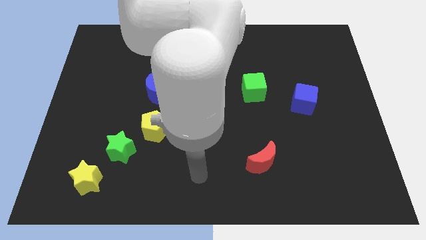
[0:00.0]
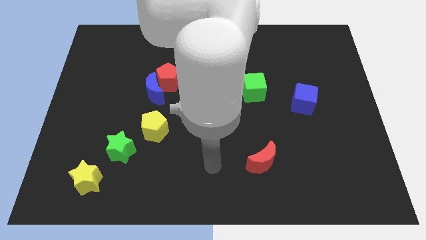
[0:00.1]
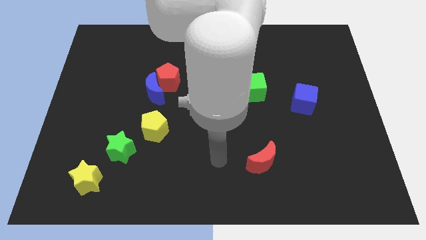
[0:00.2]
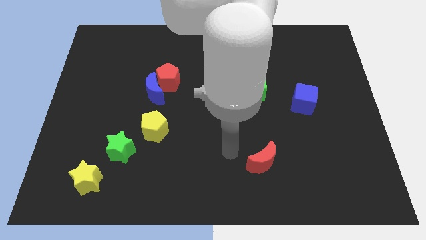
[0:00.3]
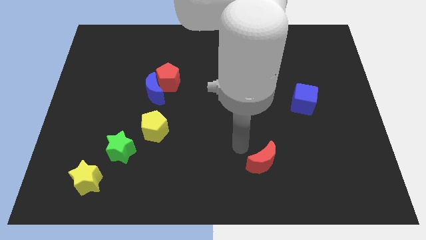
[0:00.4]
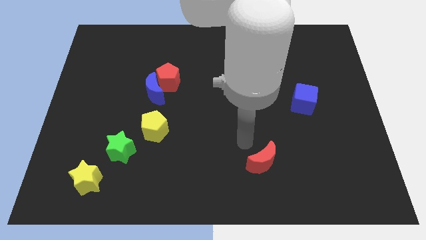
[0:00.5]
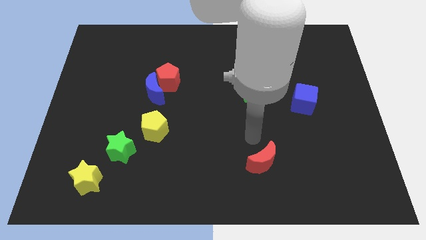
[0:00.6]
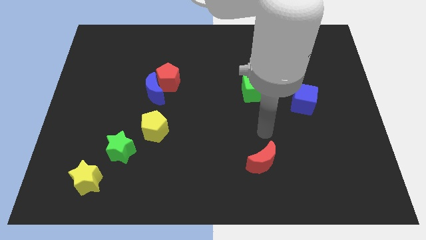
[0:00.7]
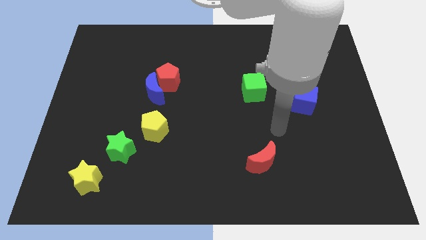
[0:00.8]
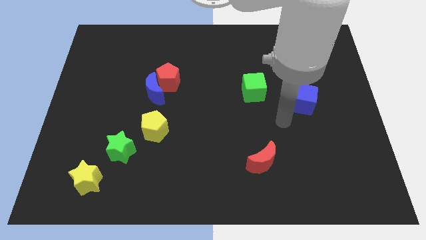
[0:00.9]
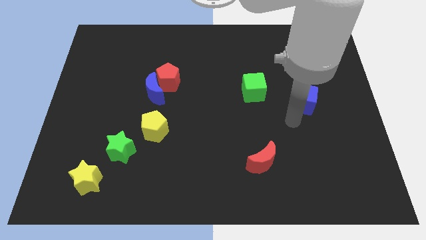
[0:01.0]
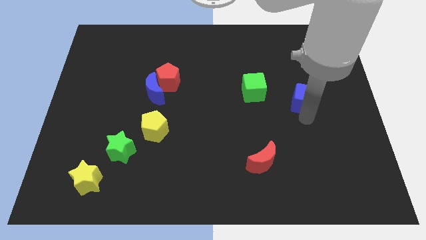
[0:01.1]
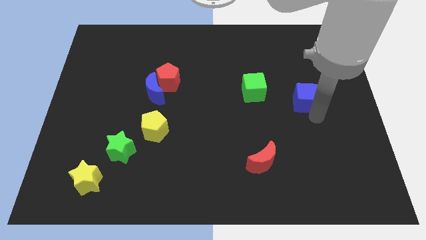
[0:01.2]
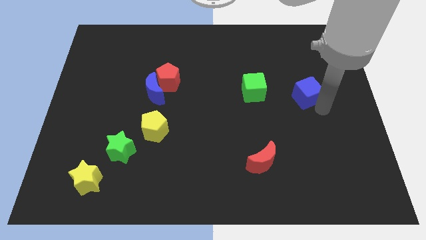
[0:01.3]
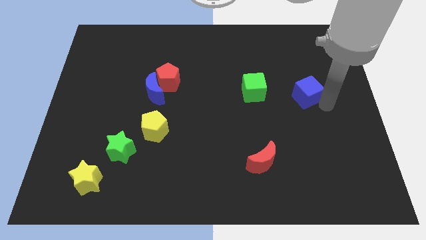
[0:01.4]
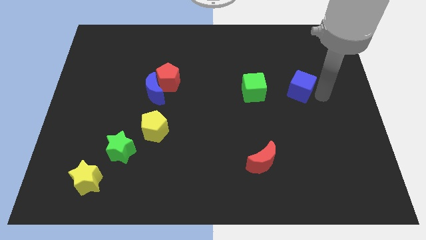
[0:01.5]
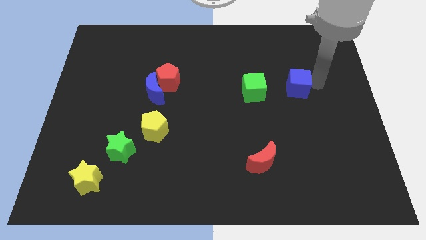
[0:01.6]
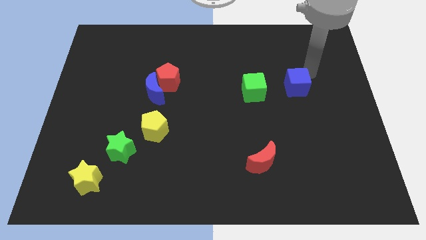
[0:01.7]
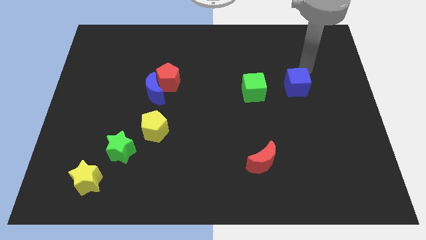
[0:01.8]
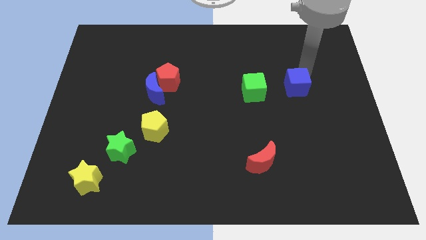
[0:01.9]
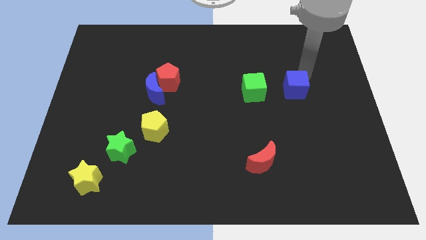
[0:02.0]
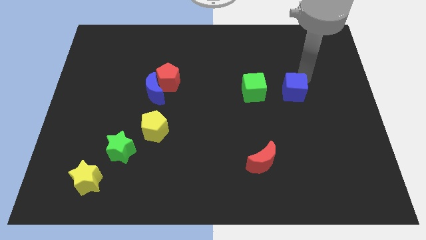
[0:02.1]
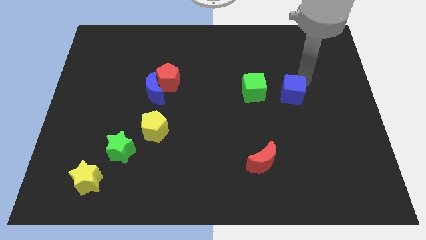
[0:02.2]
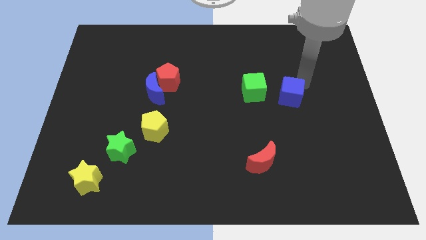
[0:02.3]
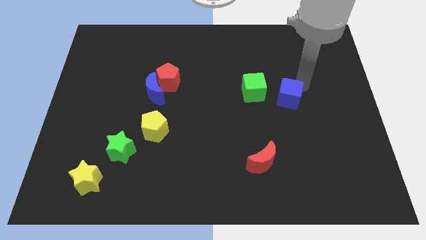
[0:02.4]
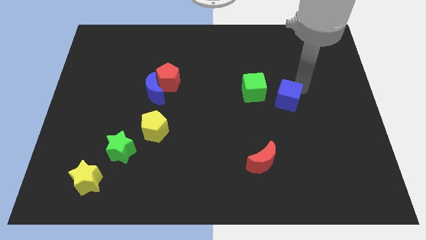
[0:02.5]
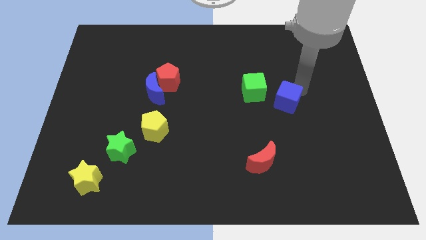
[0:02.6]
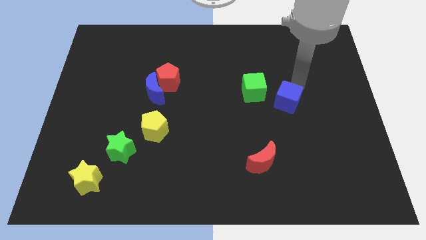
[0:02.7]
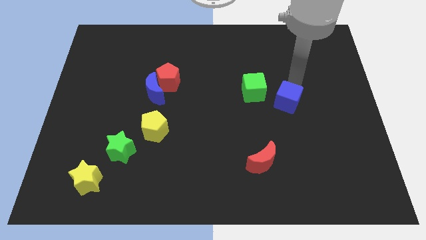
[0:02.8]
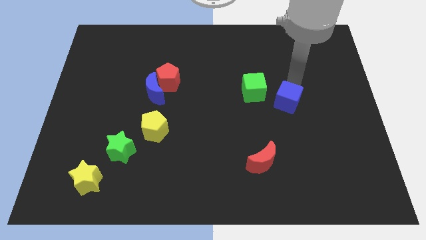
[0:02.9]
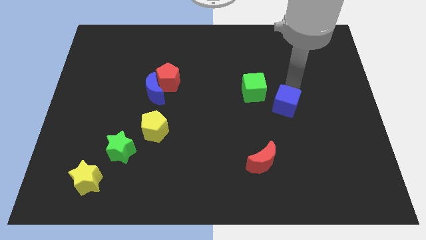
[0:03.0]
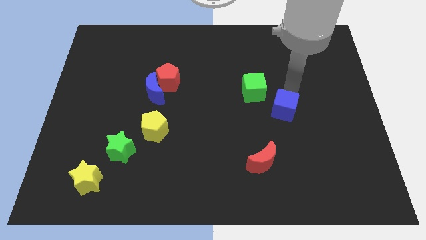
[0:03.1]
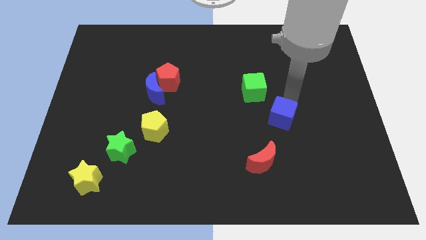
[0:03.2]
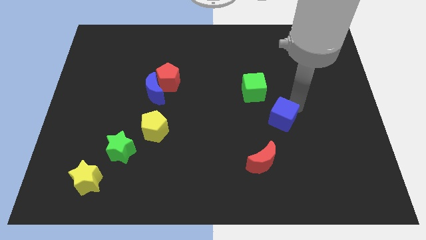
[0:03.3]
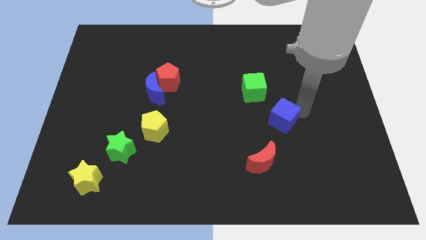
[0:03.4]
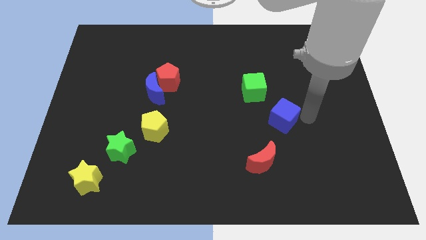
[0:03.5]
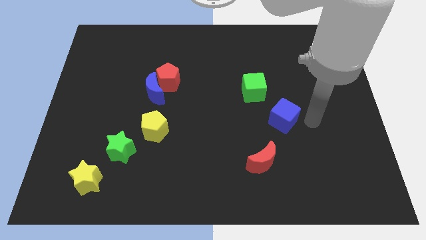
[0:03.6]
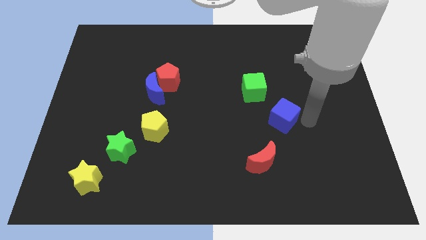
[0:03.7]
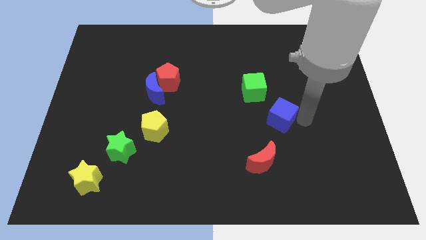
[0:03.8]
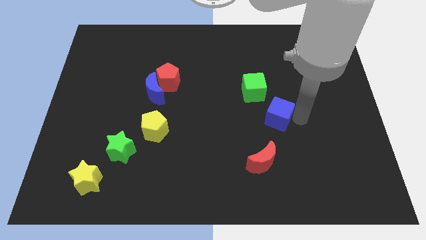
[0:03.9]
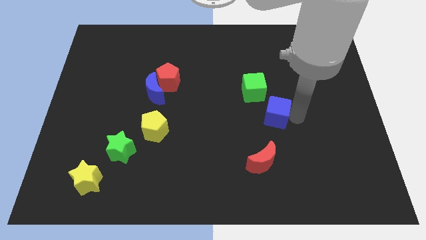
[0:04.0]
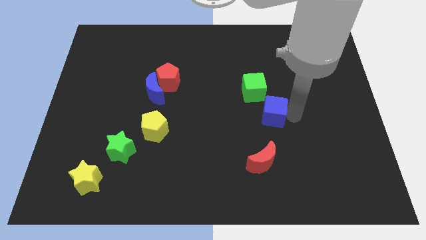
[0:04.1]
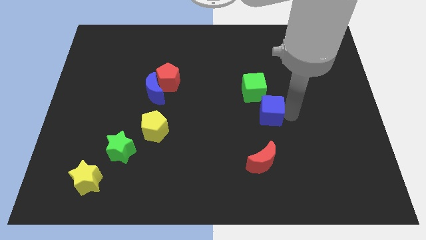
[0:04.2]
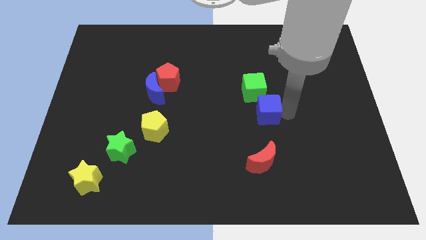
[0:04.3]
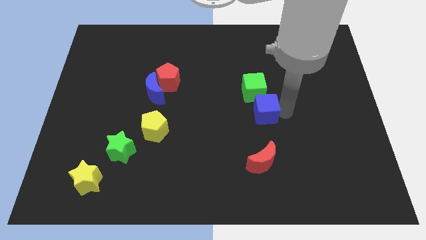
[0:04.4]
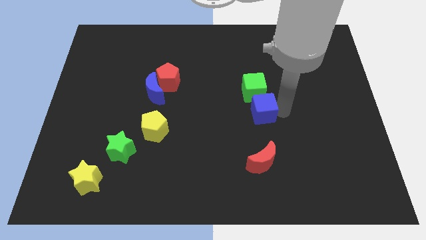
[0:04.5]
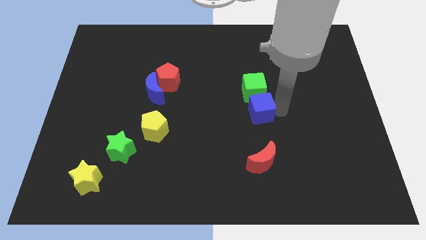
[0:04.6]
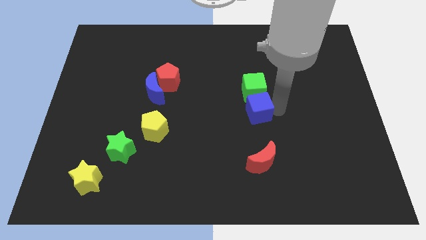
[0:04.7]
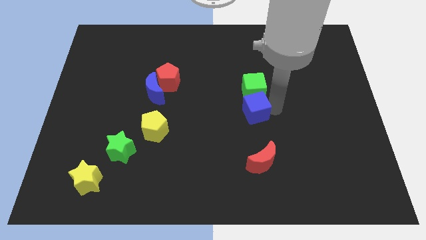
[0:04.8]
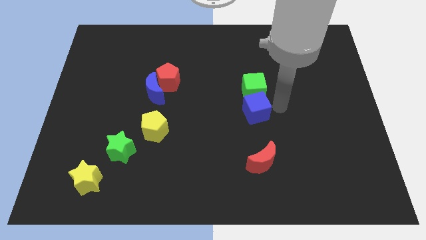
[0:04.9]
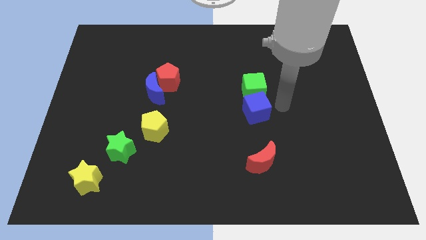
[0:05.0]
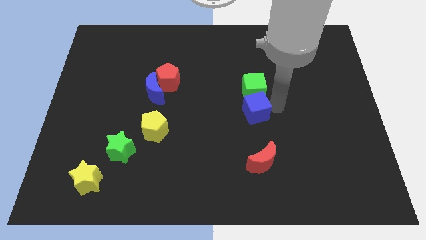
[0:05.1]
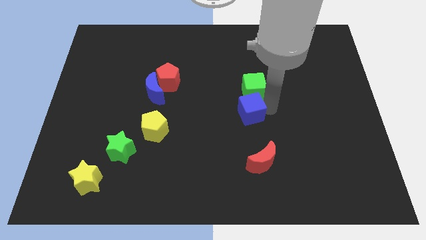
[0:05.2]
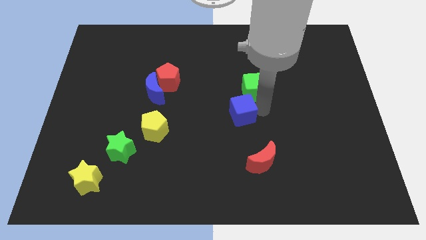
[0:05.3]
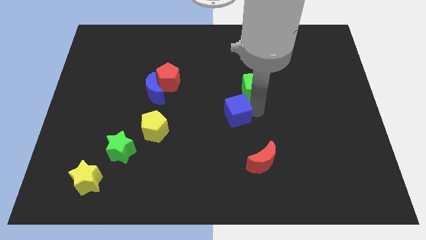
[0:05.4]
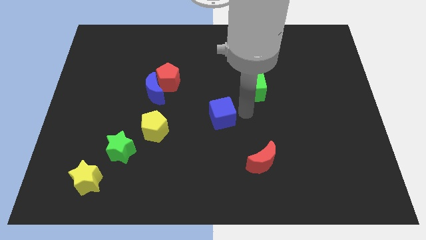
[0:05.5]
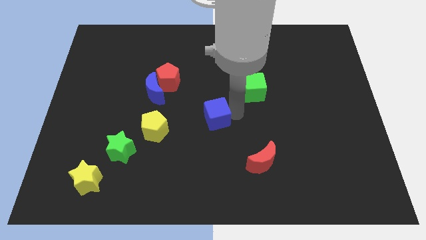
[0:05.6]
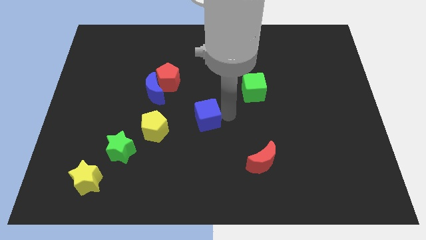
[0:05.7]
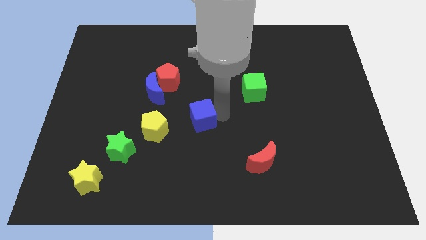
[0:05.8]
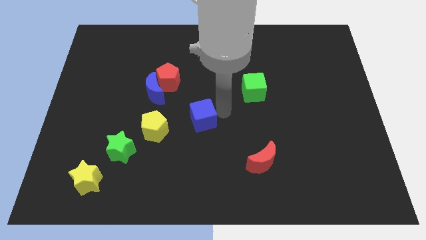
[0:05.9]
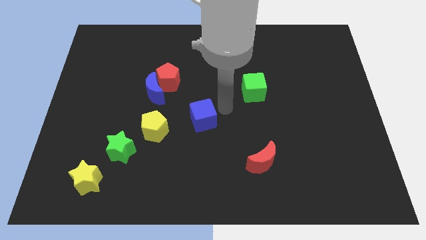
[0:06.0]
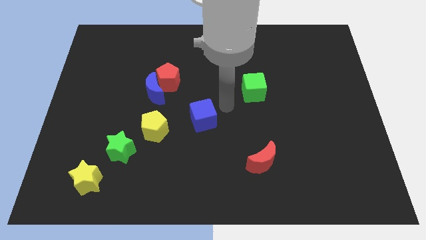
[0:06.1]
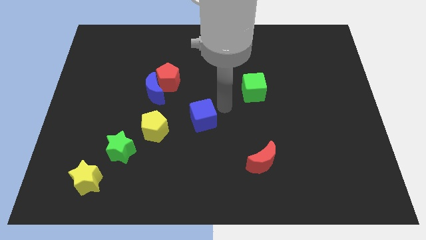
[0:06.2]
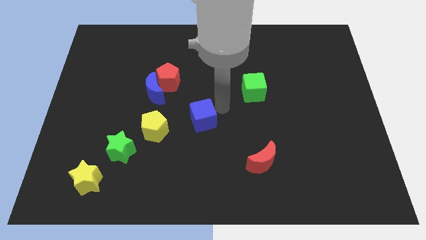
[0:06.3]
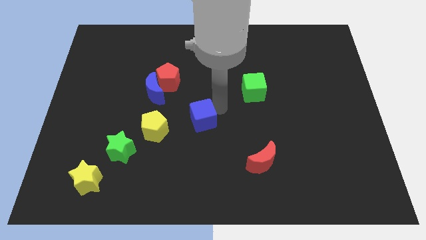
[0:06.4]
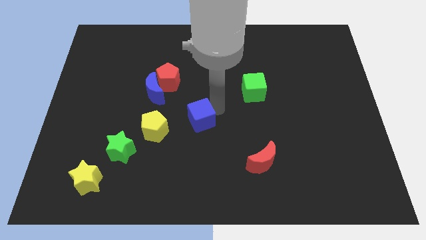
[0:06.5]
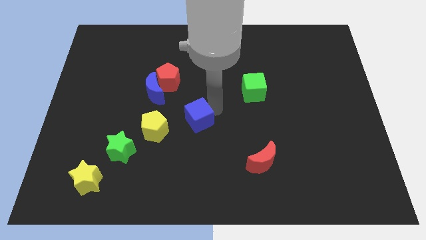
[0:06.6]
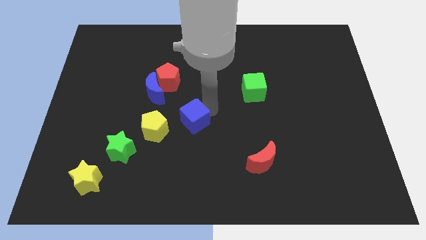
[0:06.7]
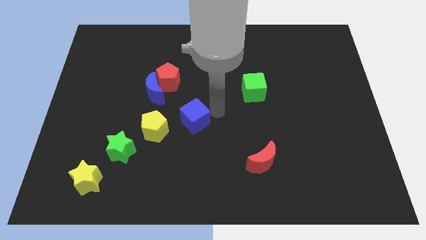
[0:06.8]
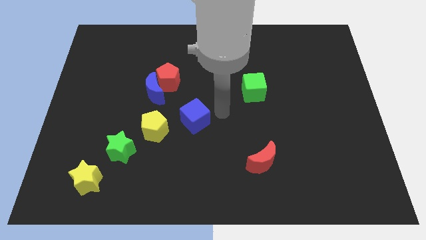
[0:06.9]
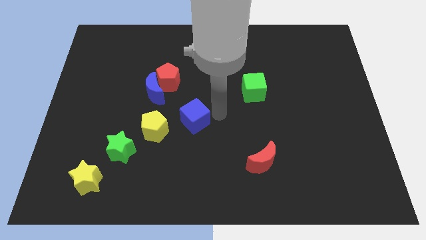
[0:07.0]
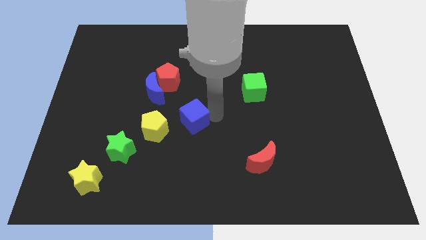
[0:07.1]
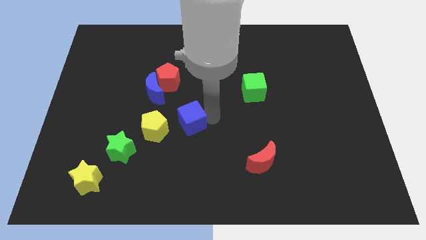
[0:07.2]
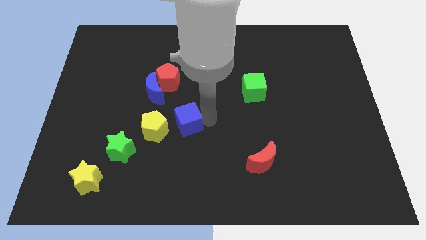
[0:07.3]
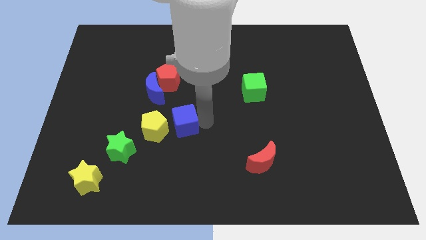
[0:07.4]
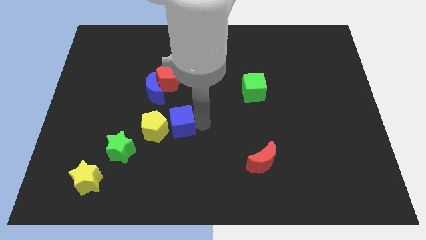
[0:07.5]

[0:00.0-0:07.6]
push the blue cube next to the yellow pentagon
